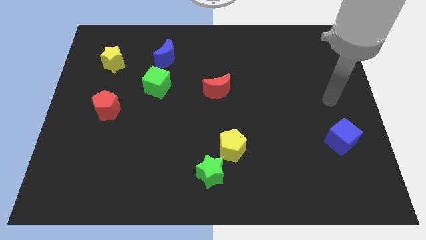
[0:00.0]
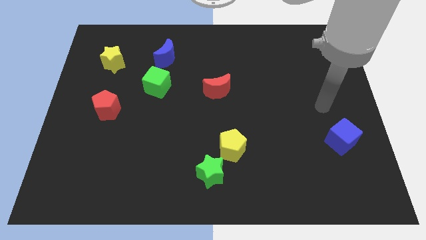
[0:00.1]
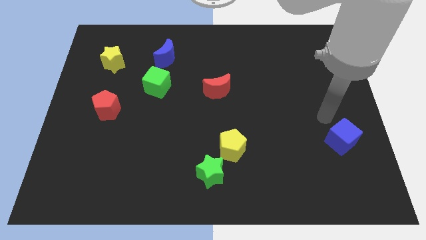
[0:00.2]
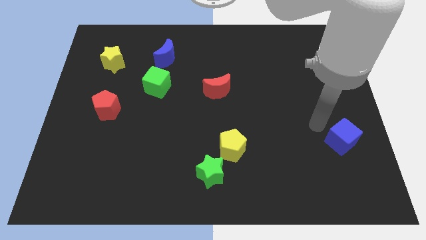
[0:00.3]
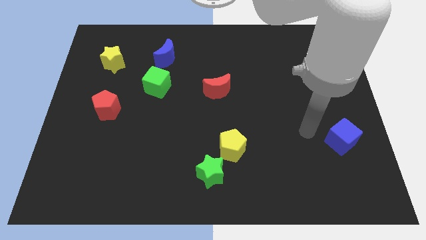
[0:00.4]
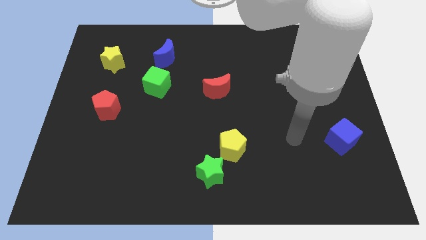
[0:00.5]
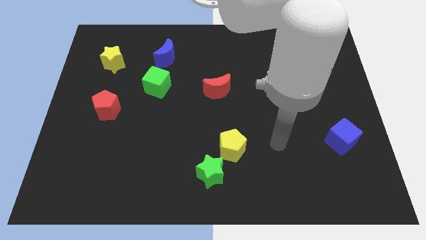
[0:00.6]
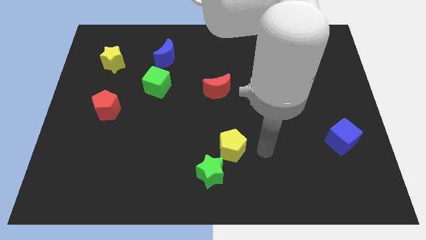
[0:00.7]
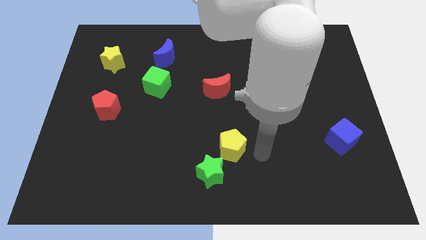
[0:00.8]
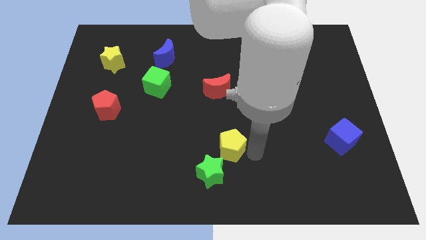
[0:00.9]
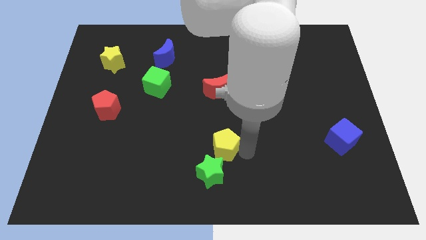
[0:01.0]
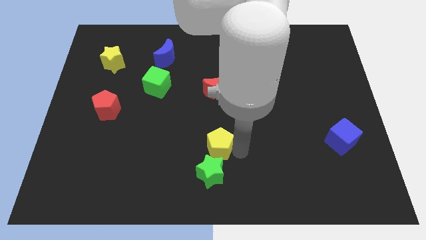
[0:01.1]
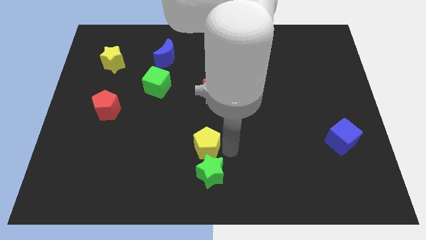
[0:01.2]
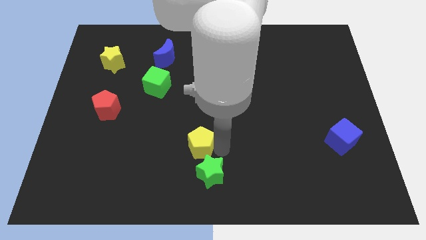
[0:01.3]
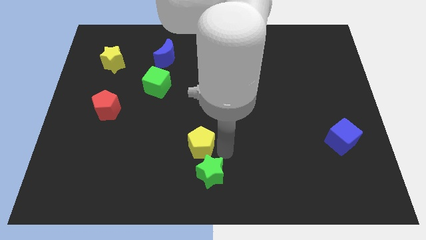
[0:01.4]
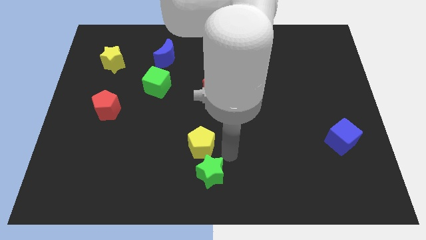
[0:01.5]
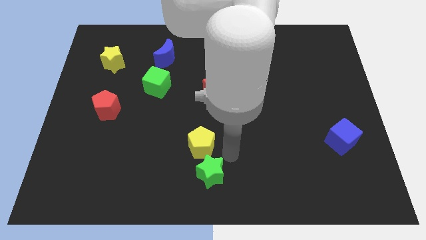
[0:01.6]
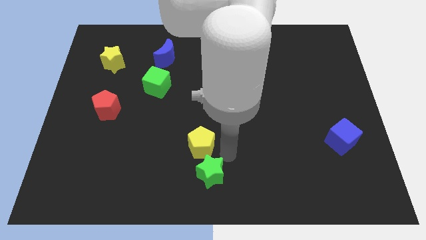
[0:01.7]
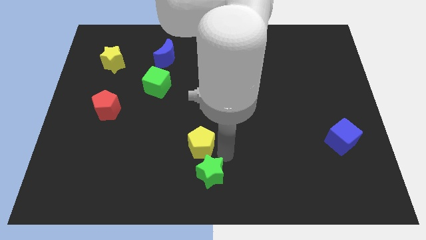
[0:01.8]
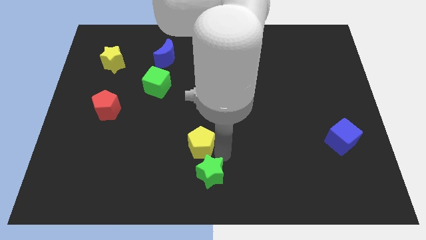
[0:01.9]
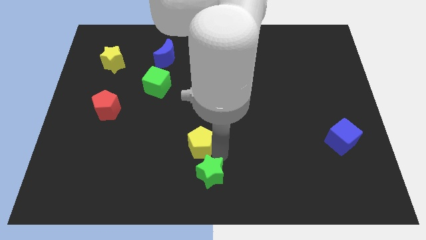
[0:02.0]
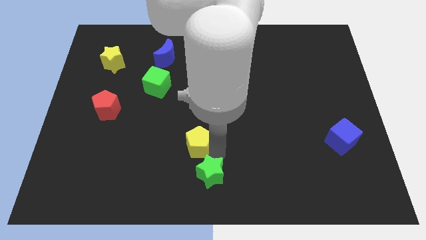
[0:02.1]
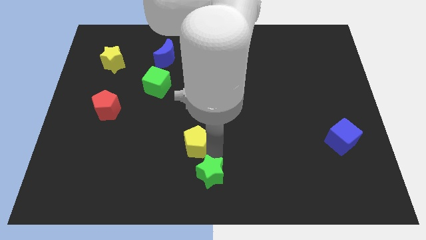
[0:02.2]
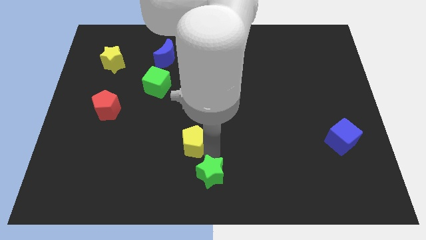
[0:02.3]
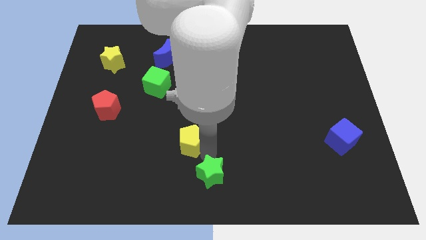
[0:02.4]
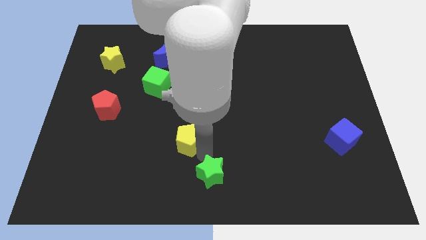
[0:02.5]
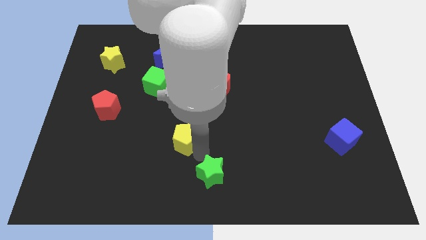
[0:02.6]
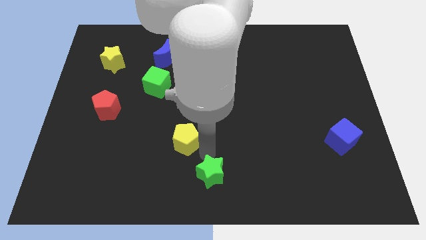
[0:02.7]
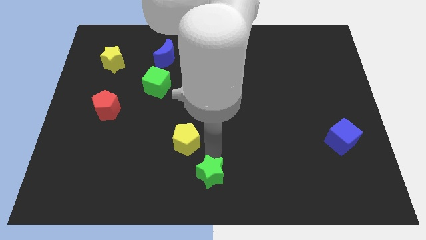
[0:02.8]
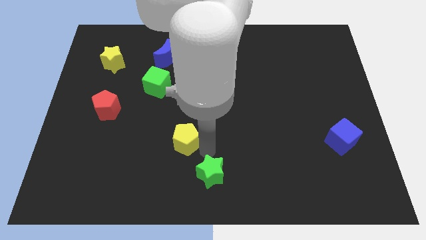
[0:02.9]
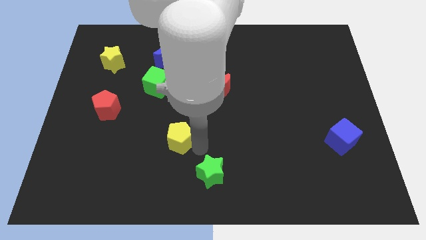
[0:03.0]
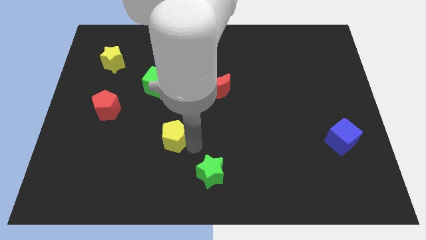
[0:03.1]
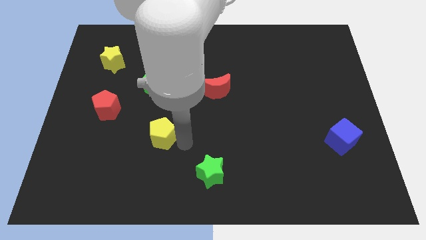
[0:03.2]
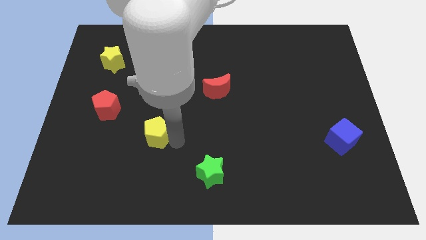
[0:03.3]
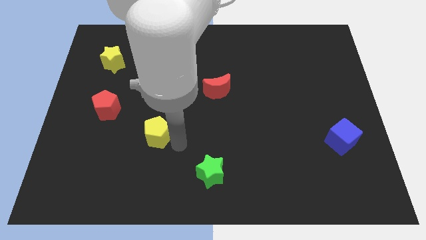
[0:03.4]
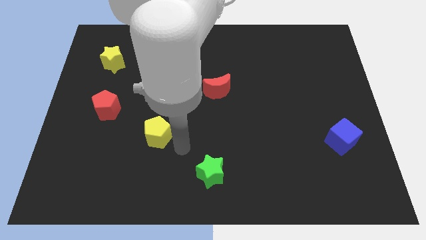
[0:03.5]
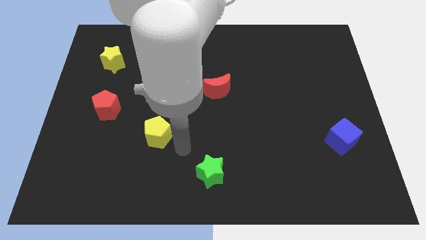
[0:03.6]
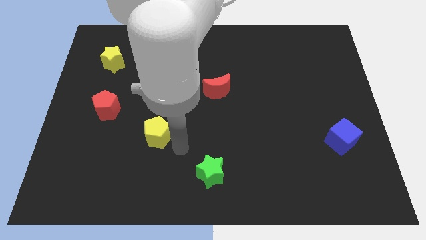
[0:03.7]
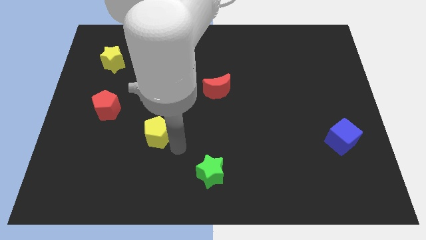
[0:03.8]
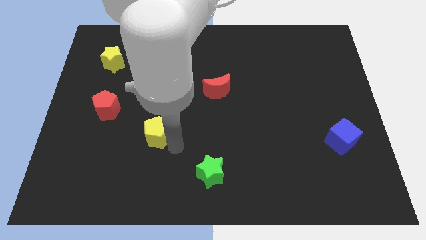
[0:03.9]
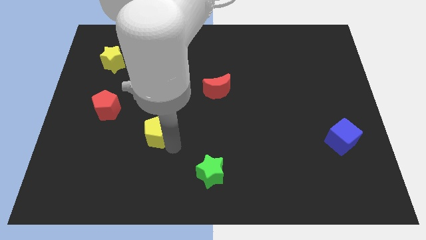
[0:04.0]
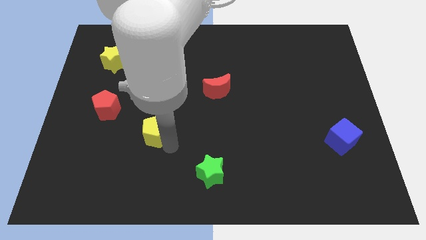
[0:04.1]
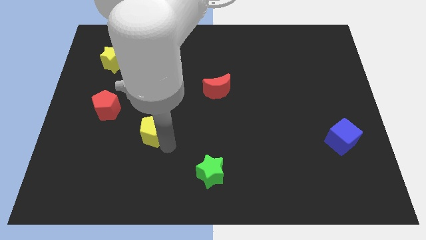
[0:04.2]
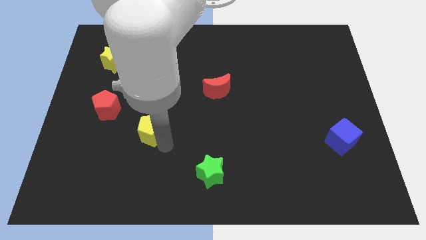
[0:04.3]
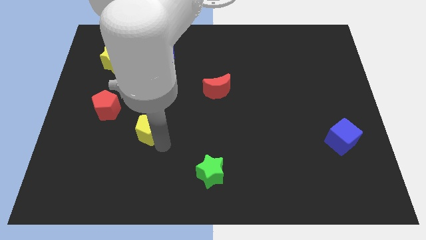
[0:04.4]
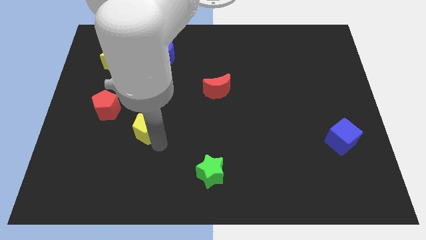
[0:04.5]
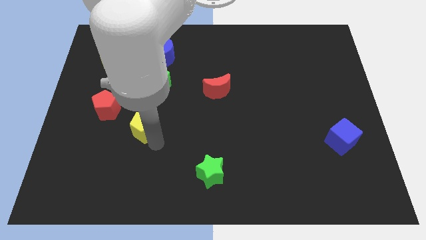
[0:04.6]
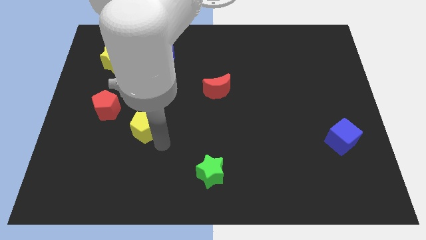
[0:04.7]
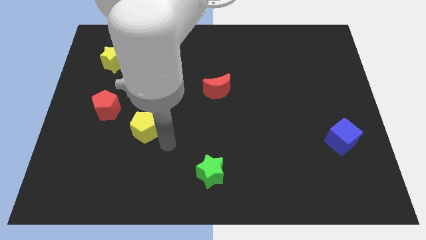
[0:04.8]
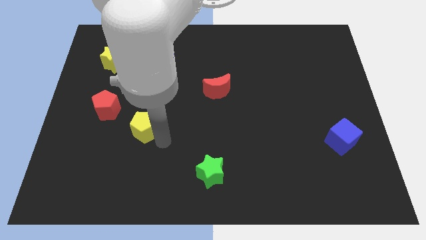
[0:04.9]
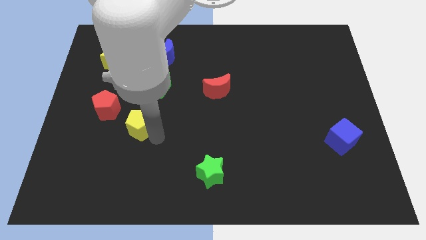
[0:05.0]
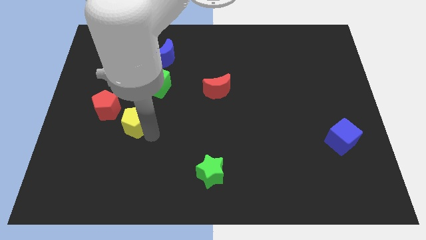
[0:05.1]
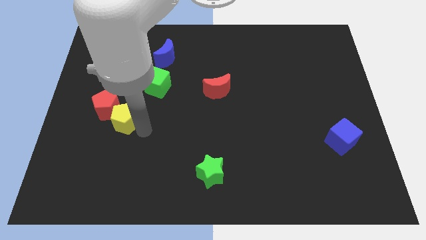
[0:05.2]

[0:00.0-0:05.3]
put the yellow pentagon next to the red pentagon

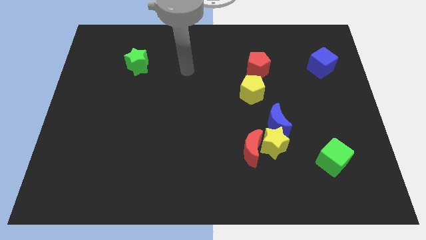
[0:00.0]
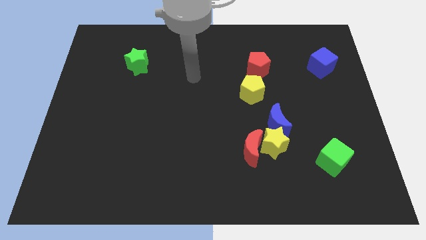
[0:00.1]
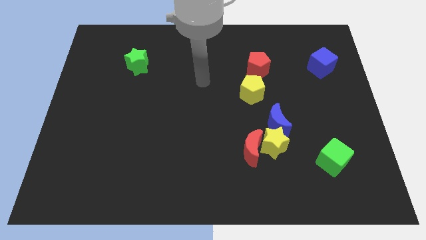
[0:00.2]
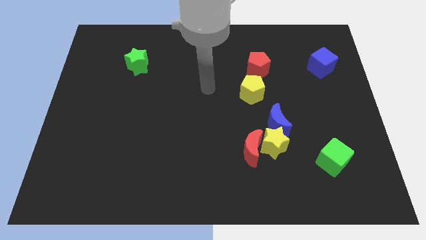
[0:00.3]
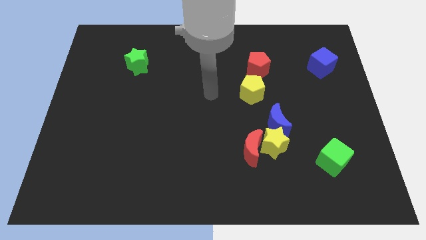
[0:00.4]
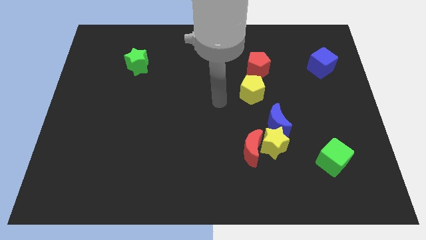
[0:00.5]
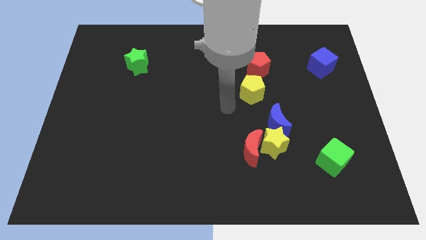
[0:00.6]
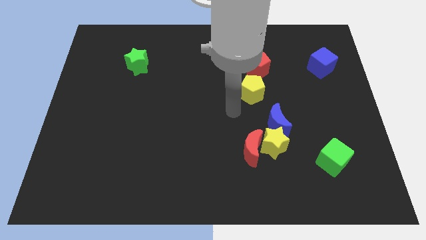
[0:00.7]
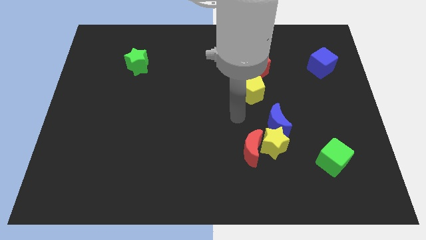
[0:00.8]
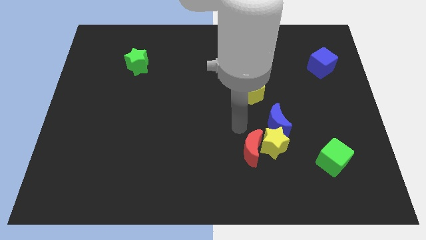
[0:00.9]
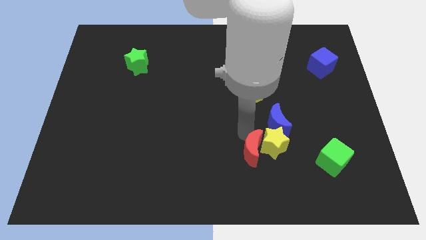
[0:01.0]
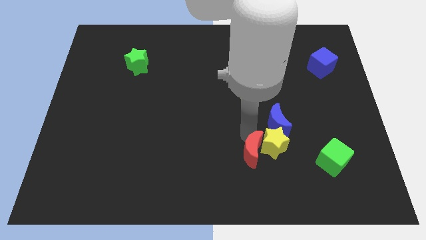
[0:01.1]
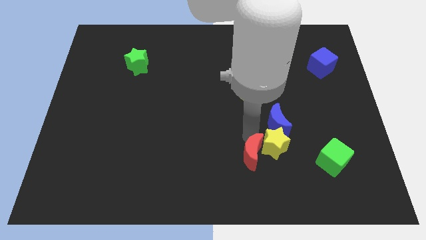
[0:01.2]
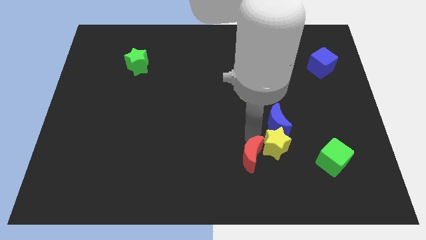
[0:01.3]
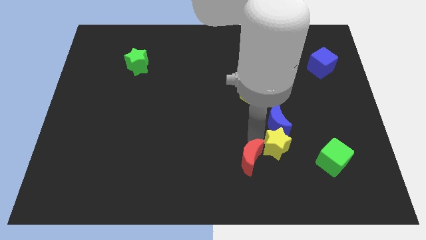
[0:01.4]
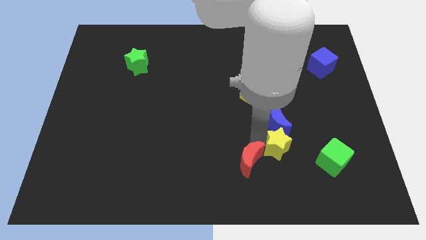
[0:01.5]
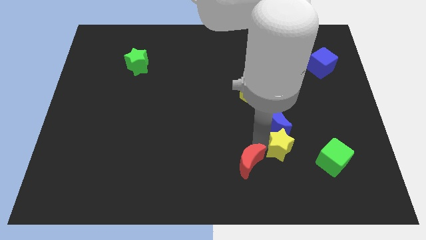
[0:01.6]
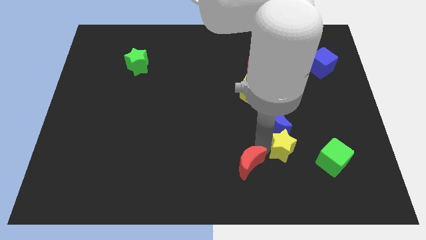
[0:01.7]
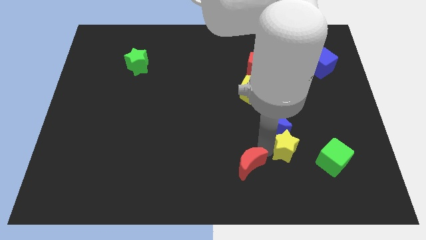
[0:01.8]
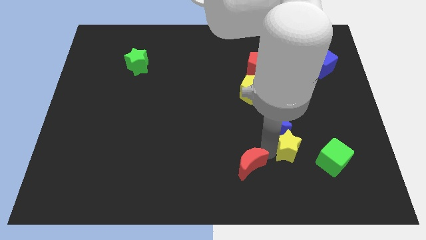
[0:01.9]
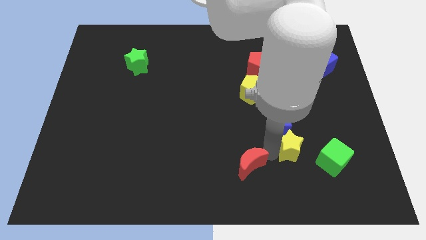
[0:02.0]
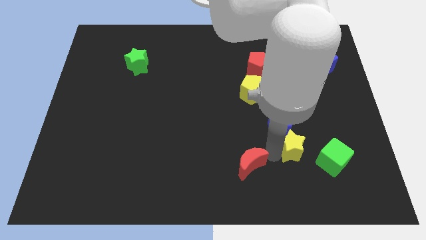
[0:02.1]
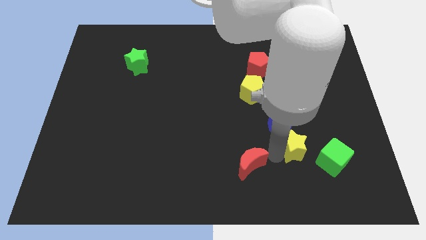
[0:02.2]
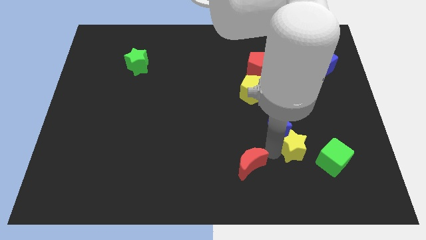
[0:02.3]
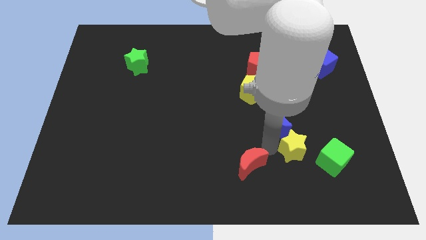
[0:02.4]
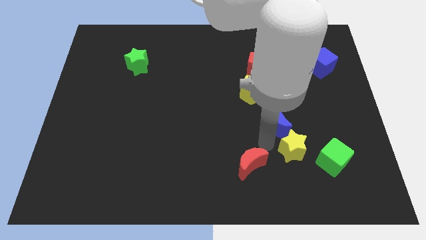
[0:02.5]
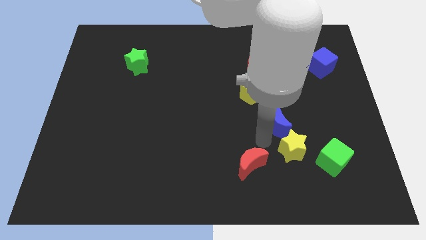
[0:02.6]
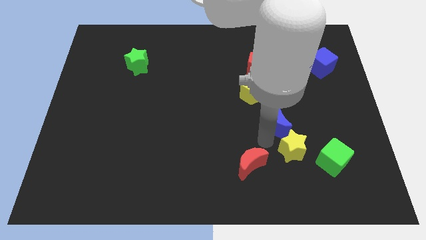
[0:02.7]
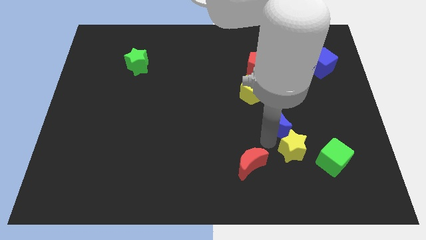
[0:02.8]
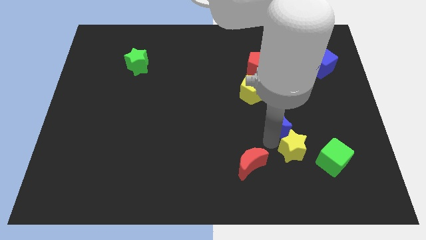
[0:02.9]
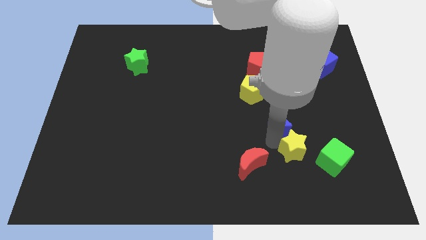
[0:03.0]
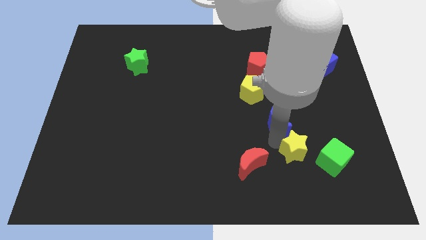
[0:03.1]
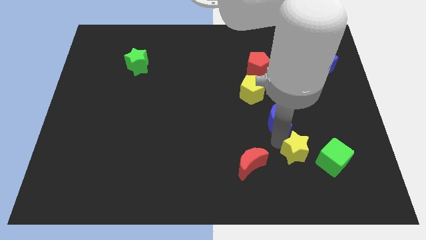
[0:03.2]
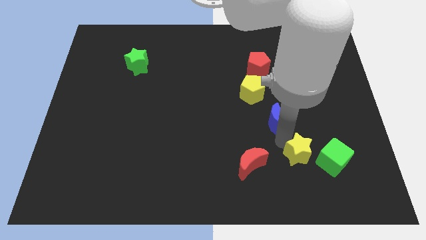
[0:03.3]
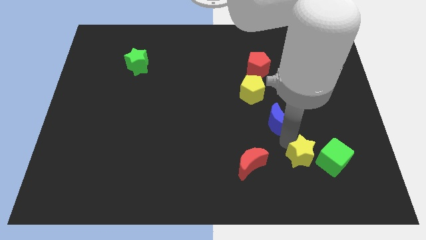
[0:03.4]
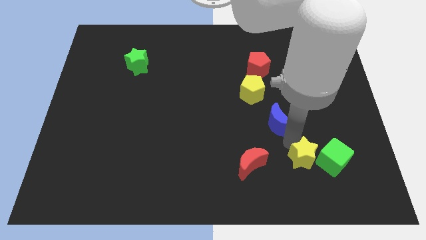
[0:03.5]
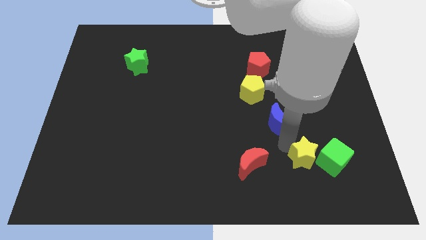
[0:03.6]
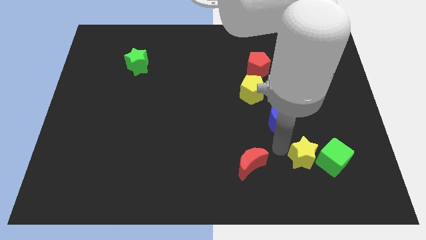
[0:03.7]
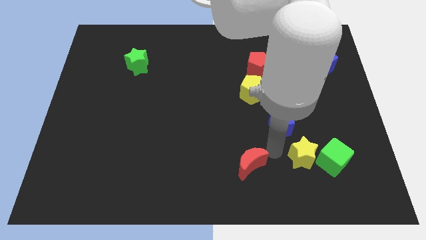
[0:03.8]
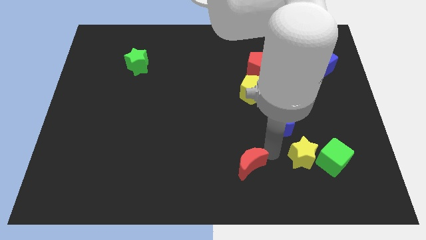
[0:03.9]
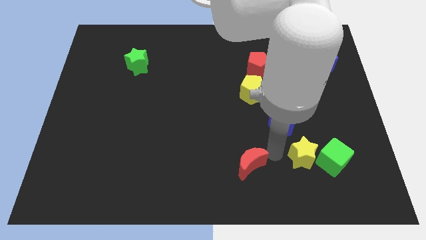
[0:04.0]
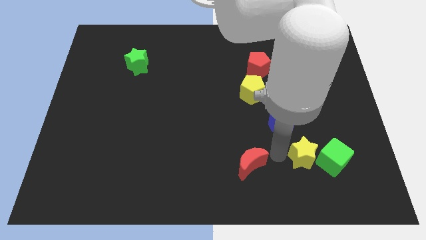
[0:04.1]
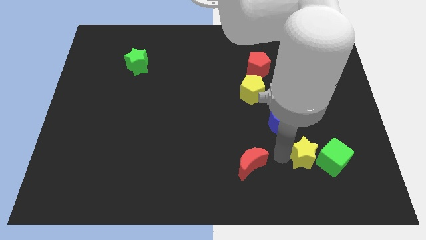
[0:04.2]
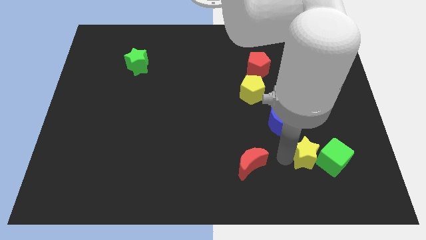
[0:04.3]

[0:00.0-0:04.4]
slide the yellow star towards the green cube
